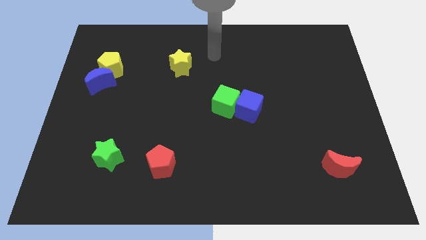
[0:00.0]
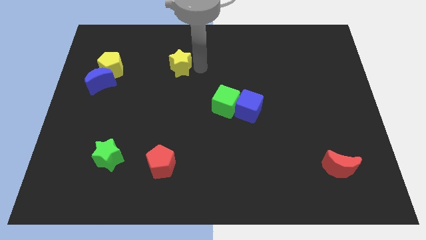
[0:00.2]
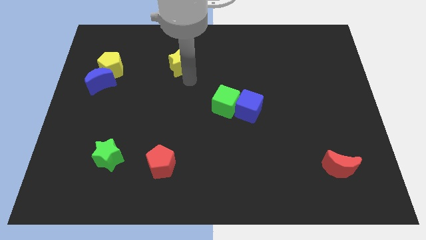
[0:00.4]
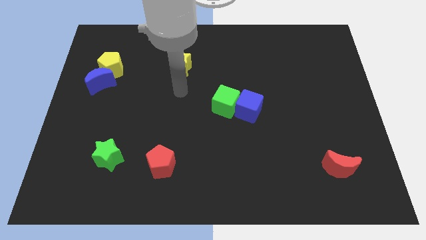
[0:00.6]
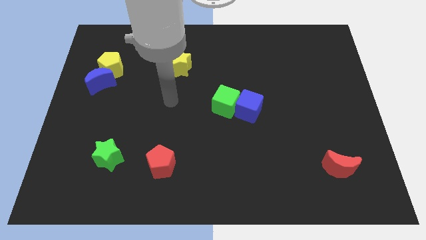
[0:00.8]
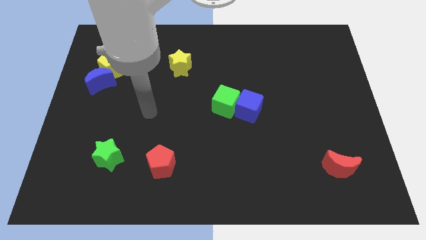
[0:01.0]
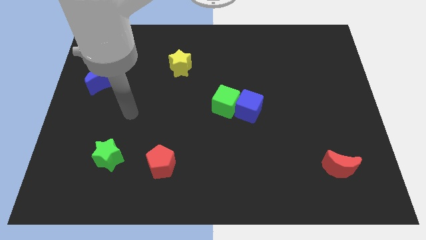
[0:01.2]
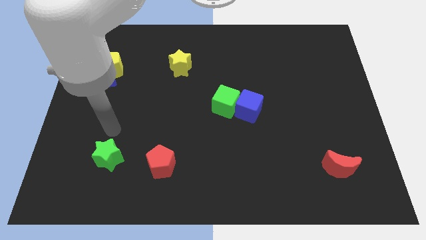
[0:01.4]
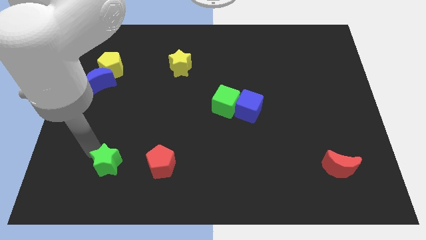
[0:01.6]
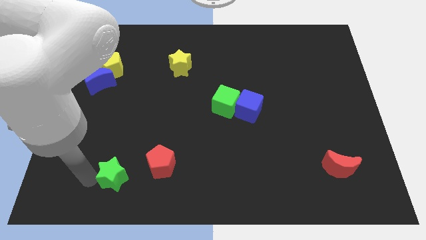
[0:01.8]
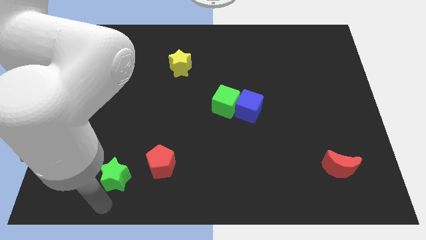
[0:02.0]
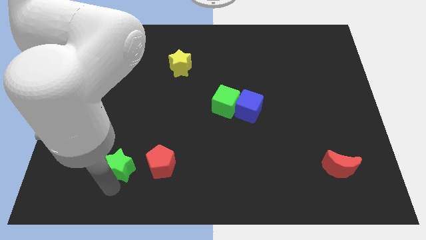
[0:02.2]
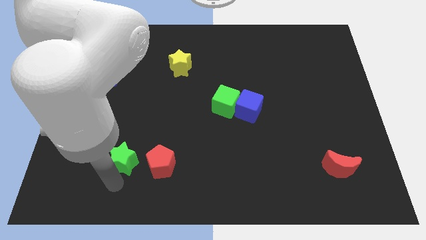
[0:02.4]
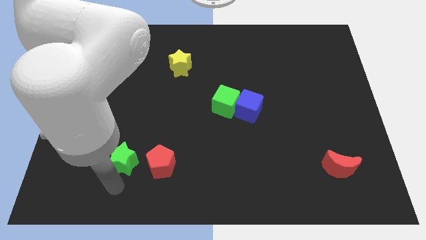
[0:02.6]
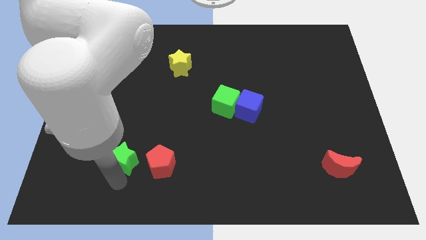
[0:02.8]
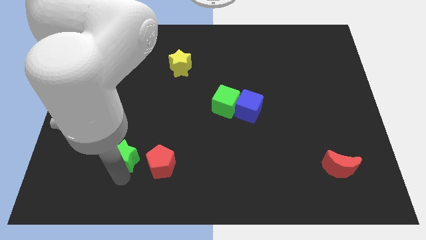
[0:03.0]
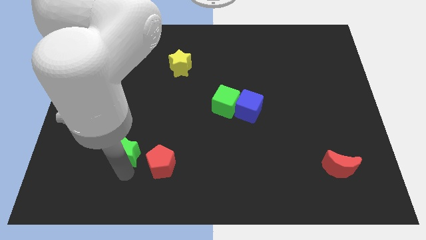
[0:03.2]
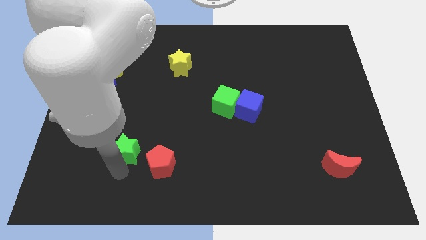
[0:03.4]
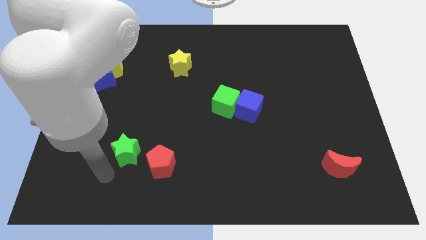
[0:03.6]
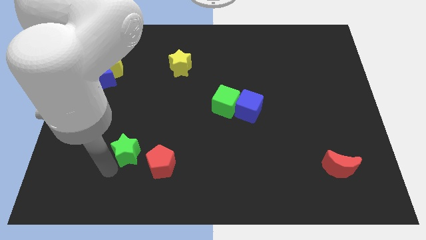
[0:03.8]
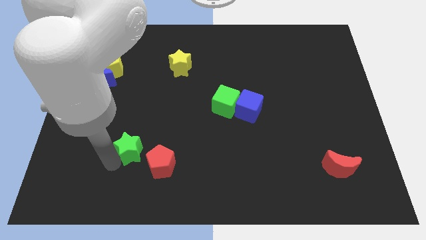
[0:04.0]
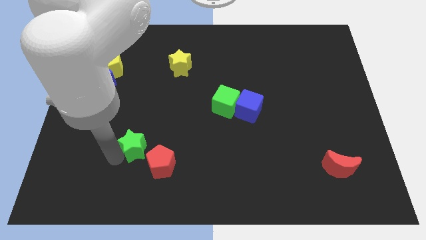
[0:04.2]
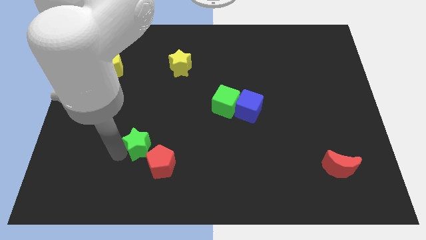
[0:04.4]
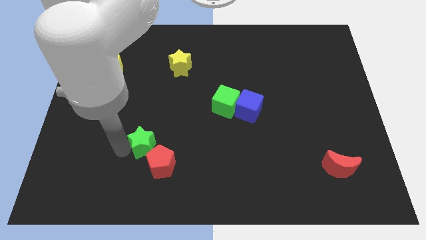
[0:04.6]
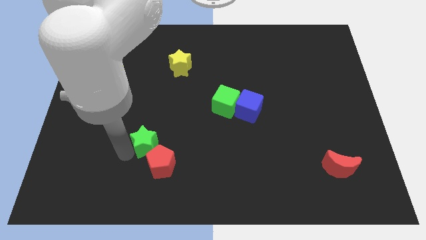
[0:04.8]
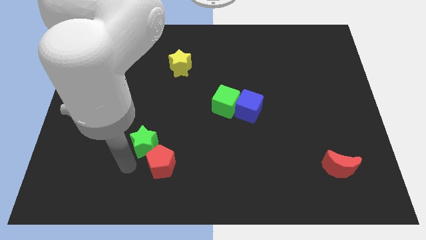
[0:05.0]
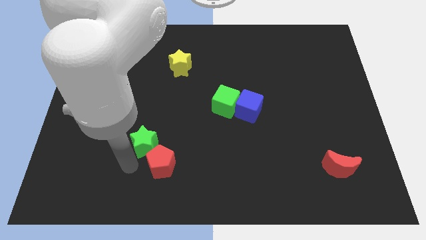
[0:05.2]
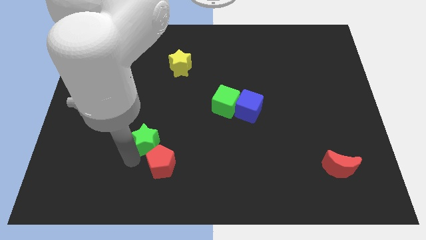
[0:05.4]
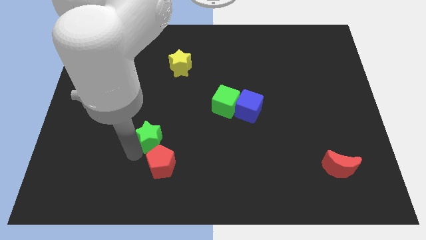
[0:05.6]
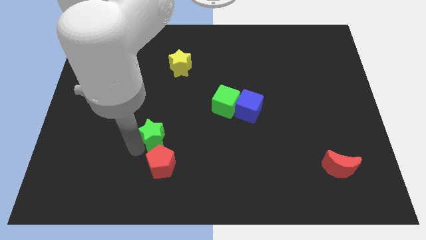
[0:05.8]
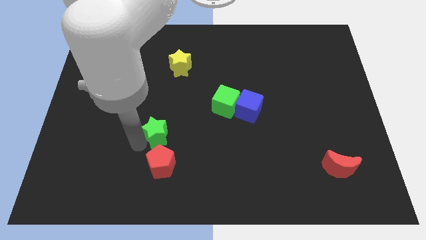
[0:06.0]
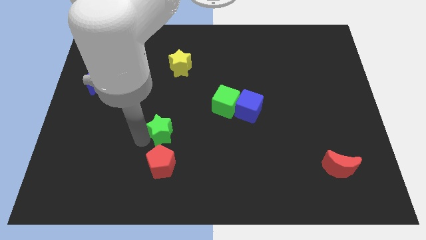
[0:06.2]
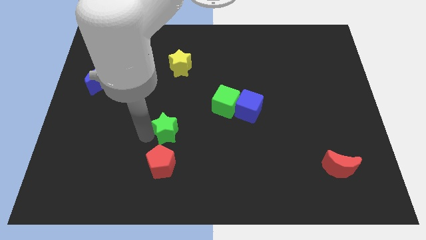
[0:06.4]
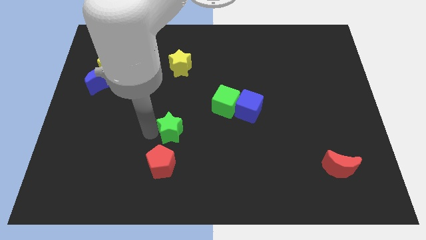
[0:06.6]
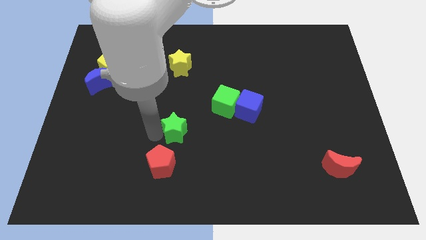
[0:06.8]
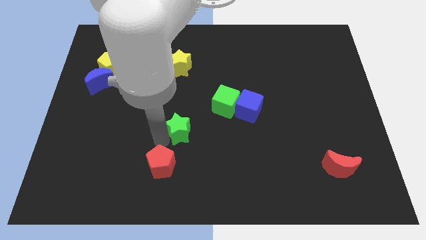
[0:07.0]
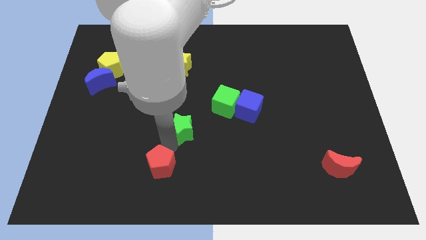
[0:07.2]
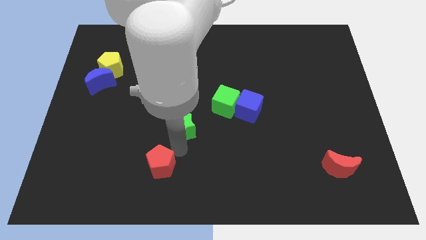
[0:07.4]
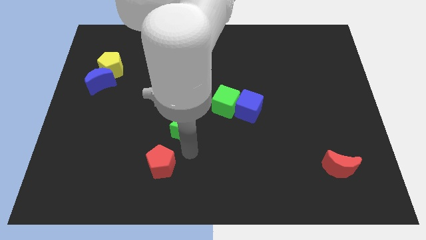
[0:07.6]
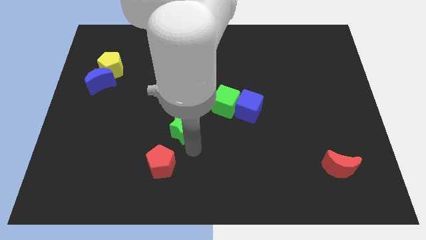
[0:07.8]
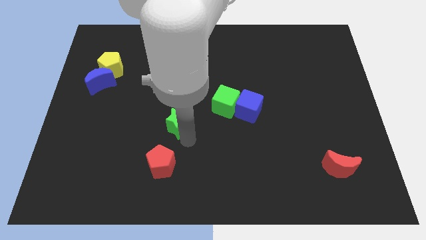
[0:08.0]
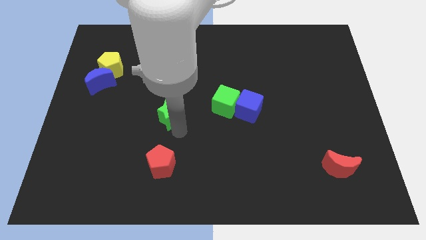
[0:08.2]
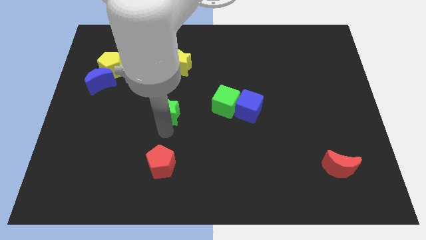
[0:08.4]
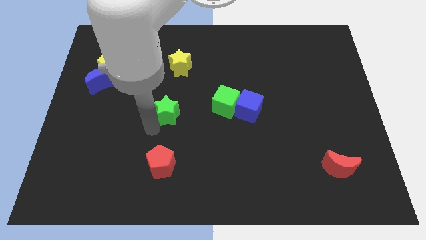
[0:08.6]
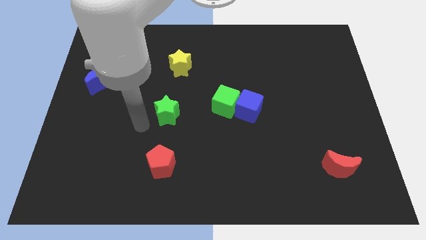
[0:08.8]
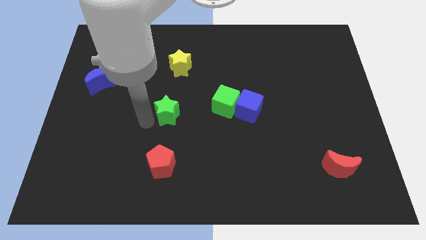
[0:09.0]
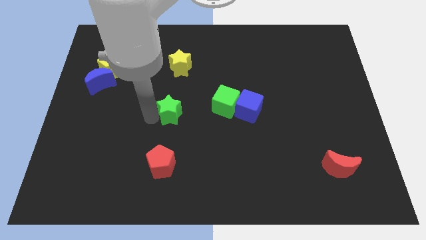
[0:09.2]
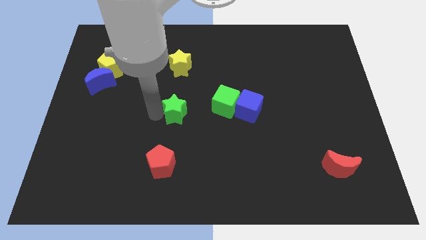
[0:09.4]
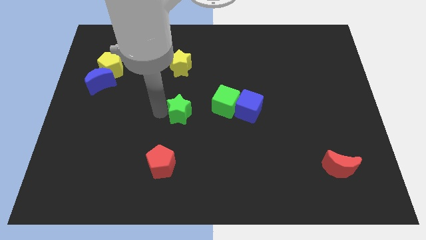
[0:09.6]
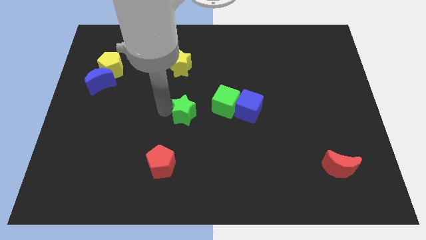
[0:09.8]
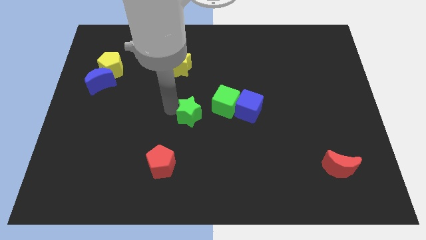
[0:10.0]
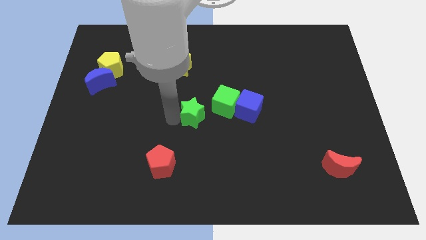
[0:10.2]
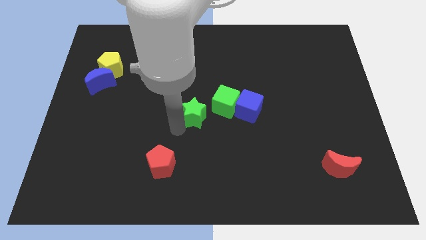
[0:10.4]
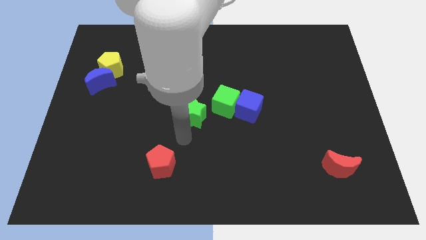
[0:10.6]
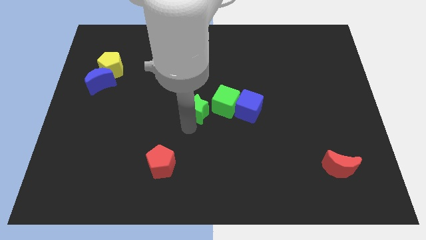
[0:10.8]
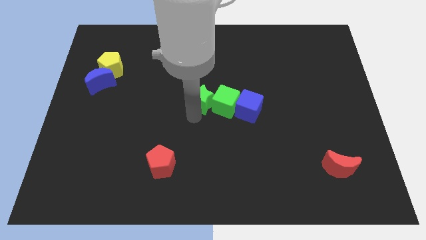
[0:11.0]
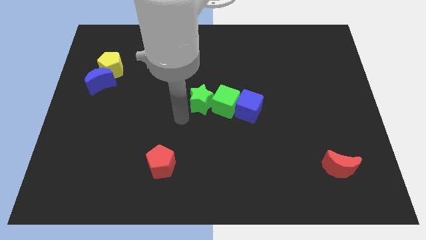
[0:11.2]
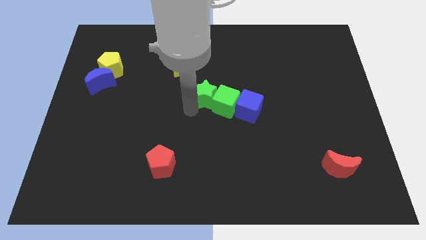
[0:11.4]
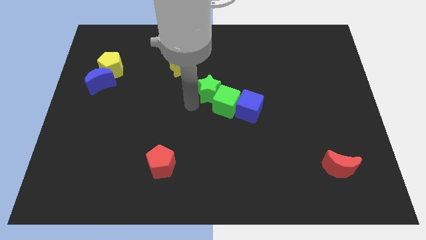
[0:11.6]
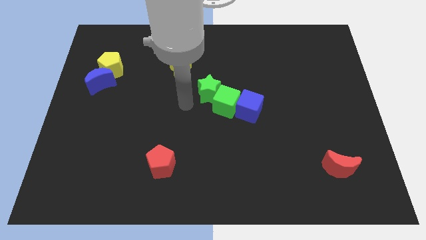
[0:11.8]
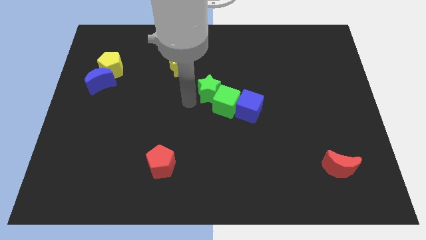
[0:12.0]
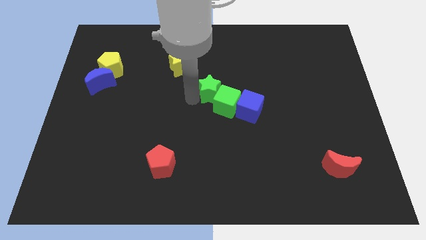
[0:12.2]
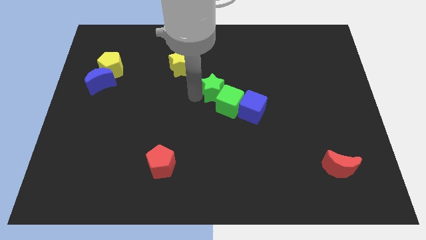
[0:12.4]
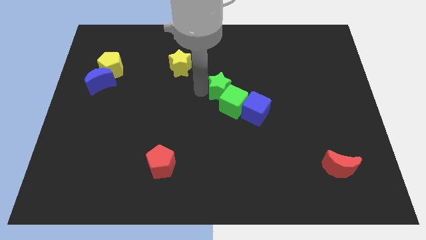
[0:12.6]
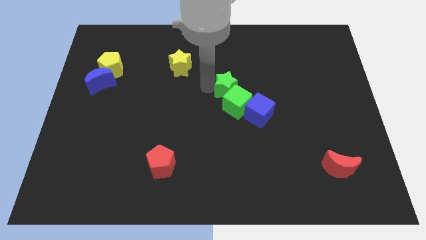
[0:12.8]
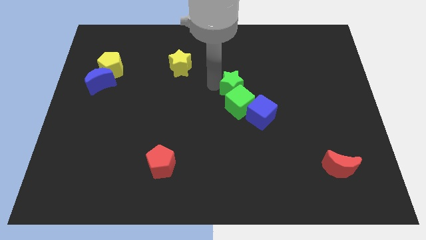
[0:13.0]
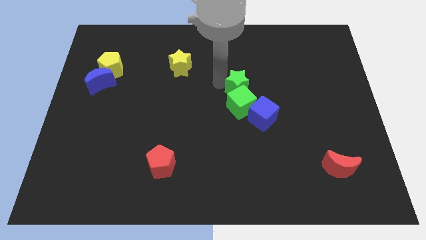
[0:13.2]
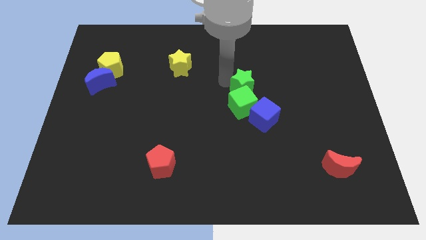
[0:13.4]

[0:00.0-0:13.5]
slide the green star to the top side of the blue cube

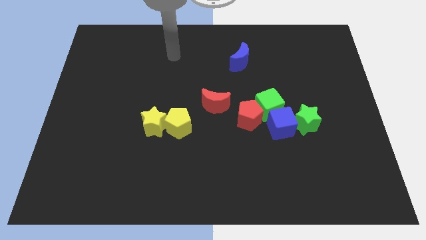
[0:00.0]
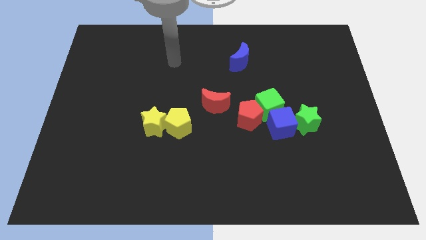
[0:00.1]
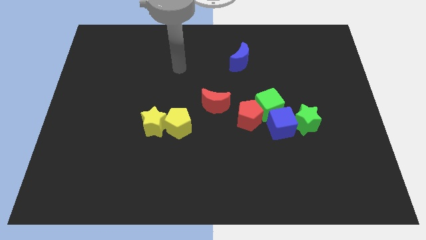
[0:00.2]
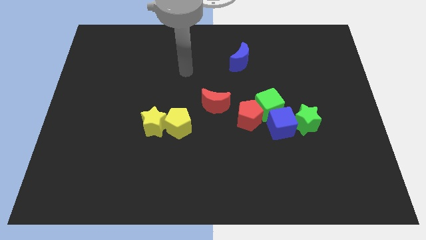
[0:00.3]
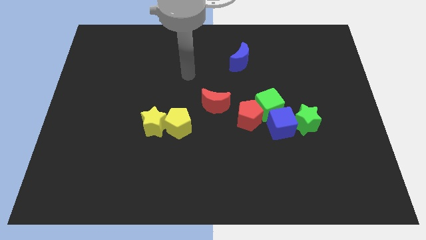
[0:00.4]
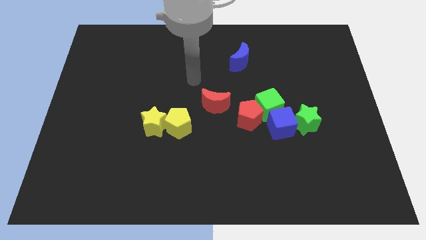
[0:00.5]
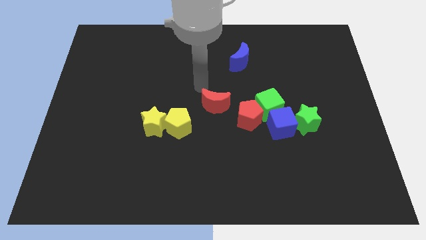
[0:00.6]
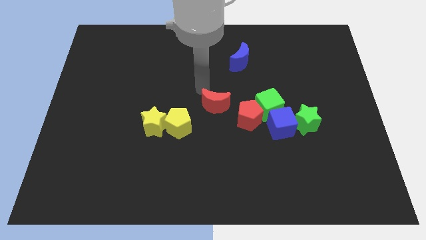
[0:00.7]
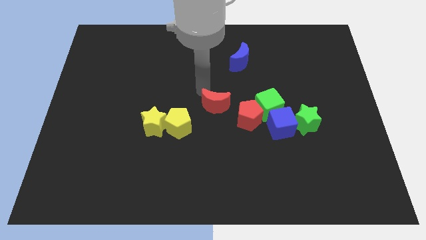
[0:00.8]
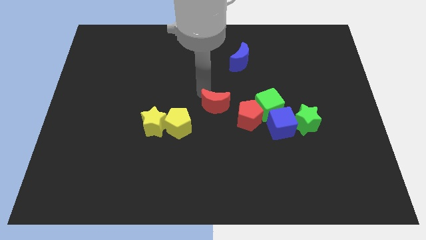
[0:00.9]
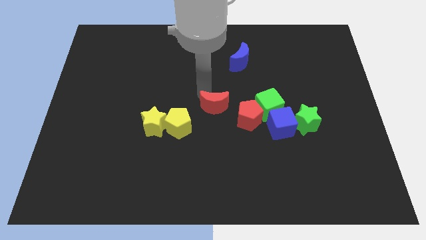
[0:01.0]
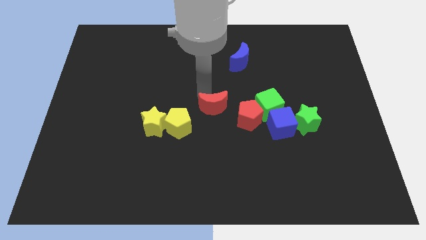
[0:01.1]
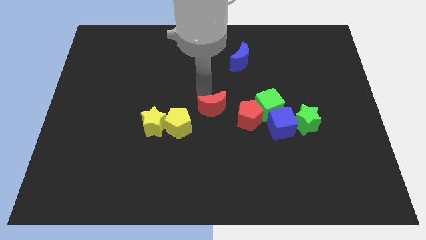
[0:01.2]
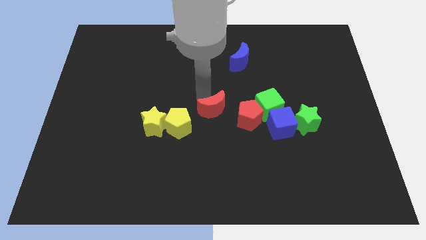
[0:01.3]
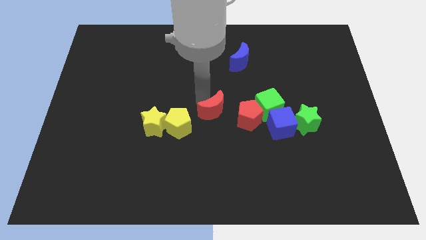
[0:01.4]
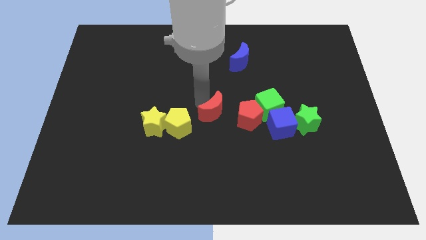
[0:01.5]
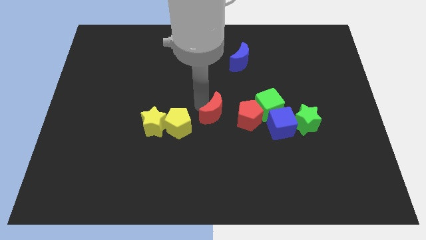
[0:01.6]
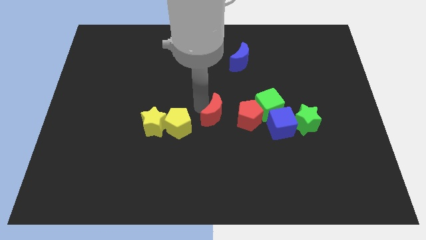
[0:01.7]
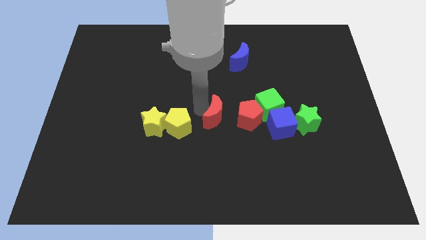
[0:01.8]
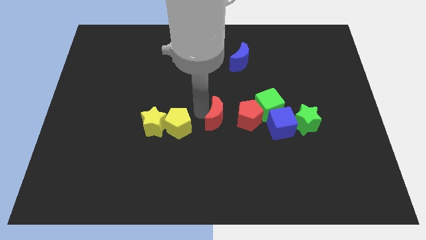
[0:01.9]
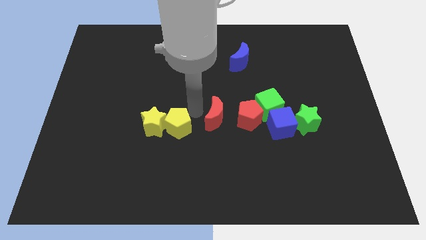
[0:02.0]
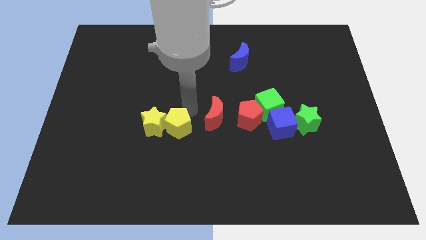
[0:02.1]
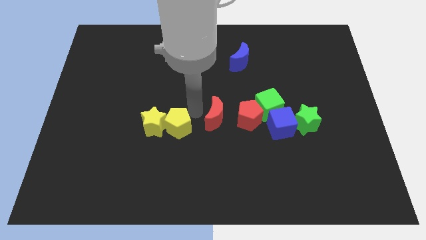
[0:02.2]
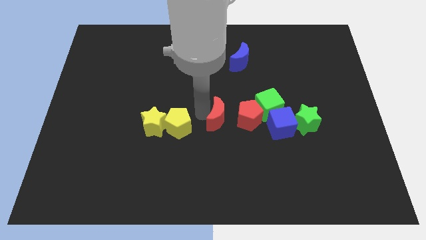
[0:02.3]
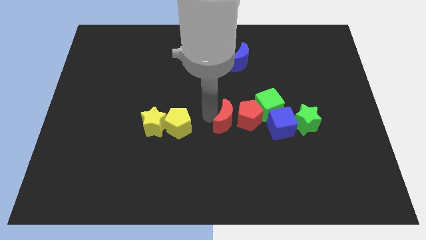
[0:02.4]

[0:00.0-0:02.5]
push the red moon to the bottom left of the green cube
